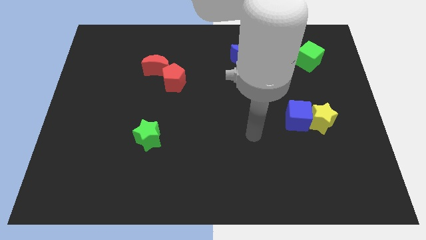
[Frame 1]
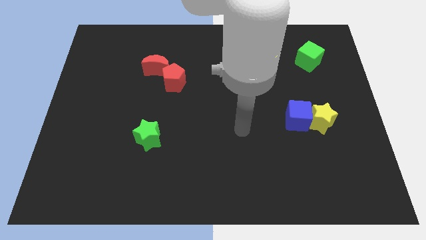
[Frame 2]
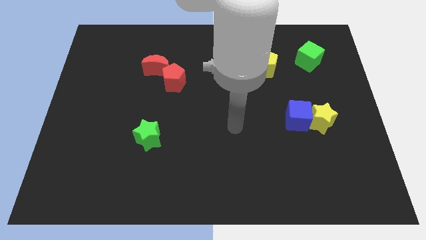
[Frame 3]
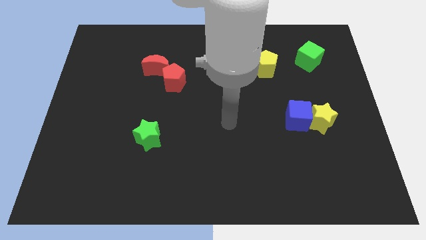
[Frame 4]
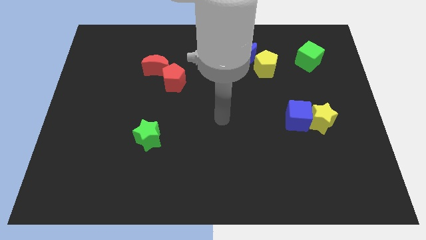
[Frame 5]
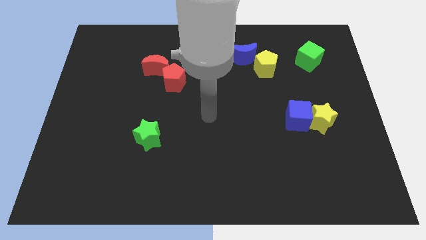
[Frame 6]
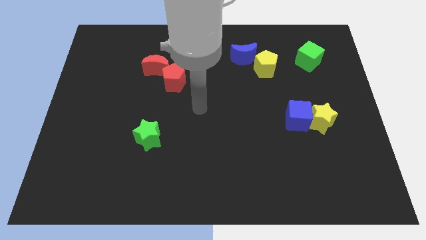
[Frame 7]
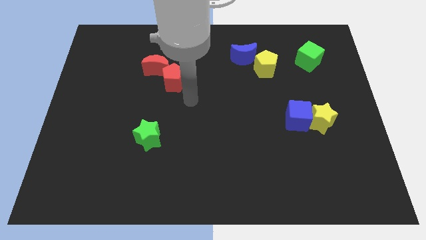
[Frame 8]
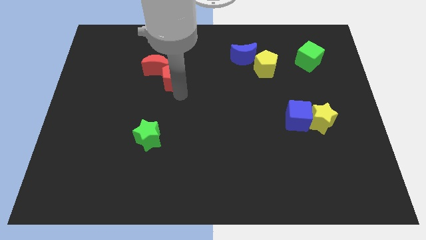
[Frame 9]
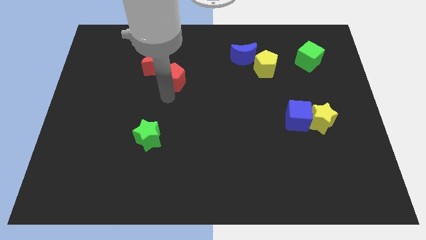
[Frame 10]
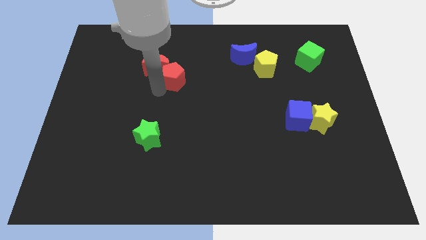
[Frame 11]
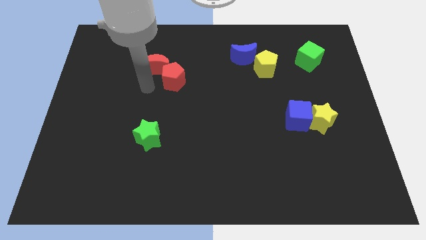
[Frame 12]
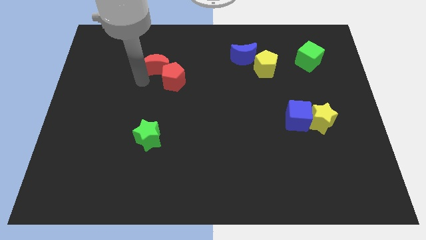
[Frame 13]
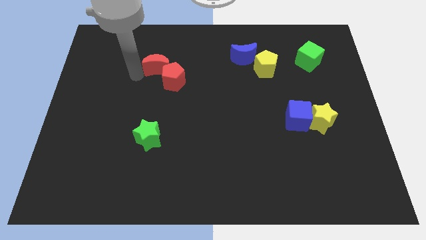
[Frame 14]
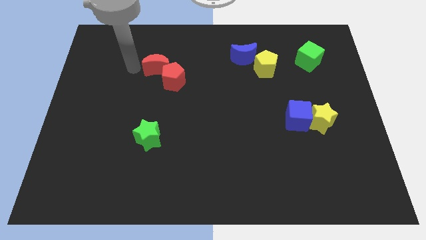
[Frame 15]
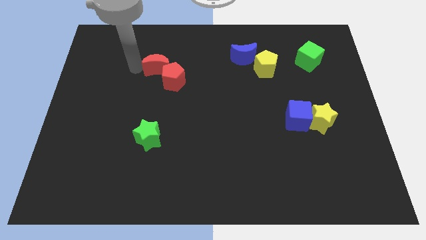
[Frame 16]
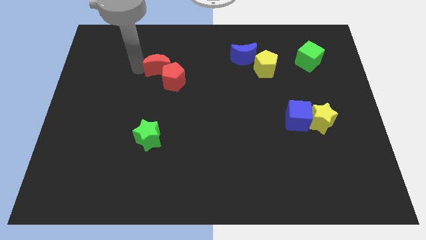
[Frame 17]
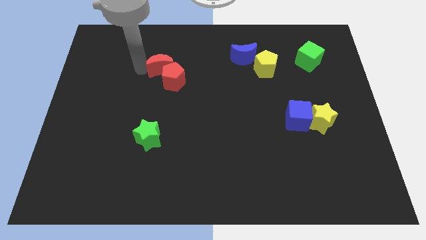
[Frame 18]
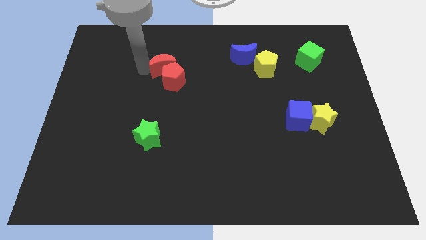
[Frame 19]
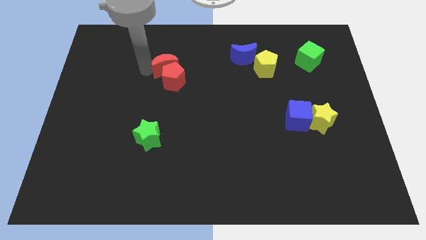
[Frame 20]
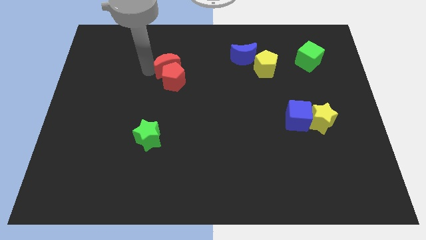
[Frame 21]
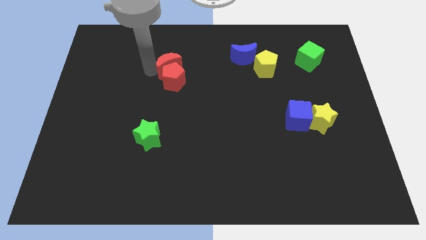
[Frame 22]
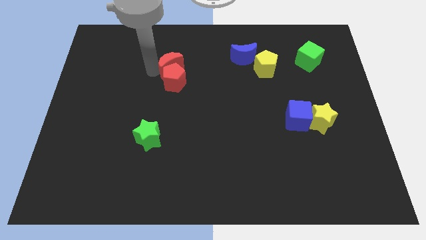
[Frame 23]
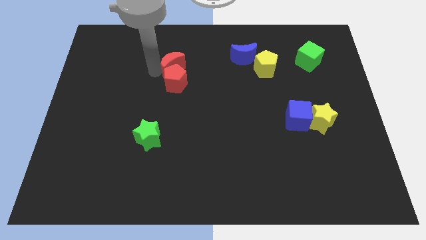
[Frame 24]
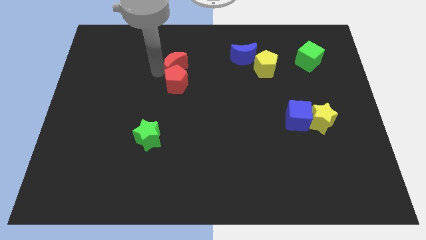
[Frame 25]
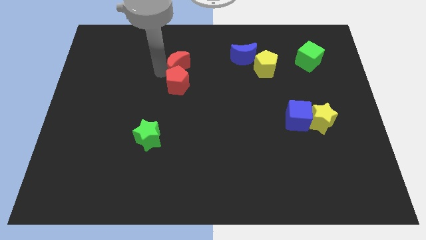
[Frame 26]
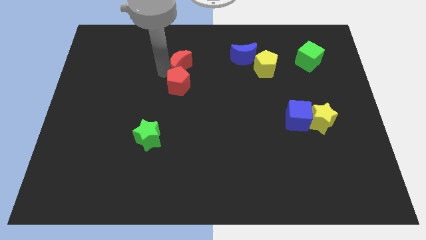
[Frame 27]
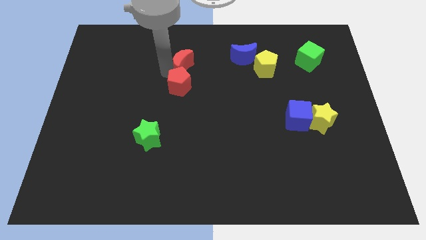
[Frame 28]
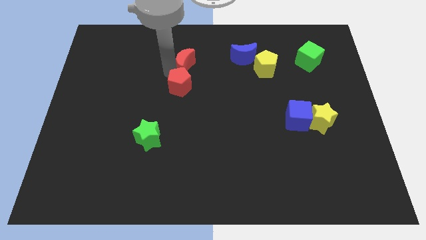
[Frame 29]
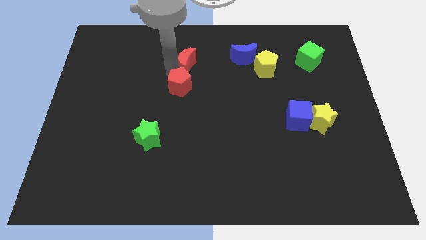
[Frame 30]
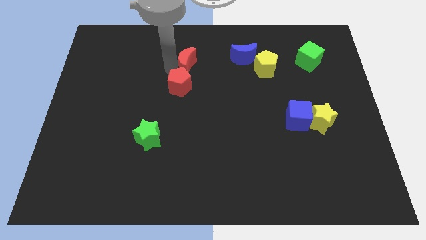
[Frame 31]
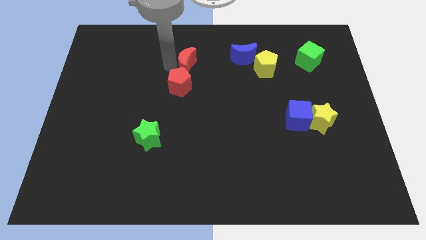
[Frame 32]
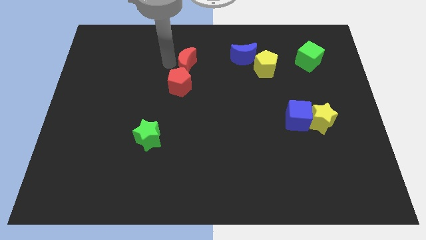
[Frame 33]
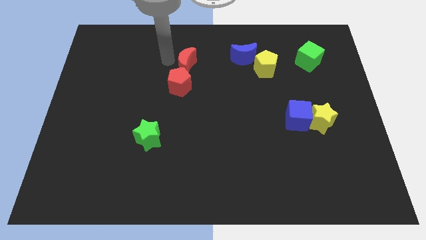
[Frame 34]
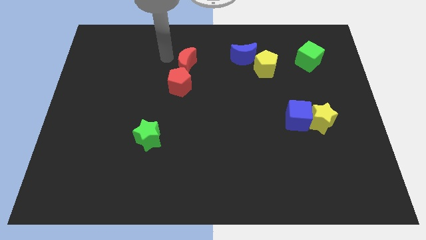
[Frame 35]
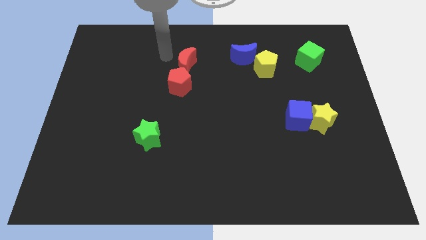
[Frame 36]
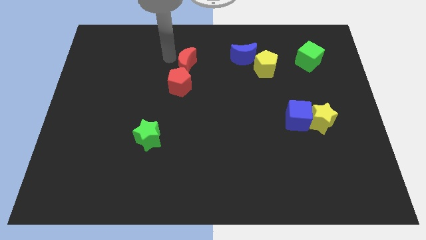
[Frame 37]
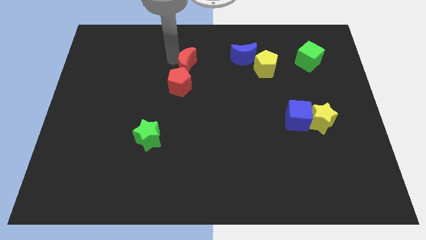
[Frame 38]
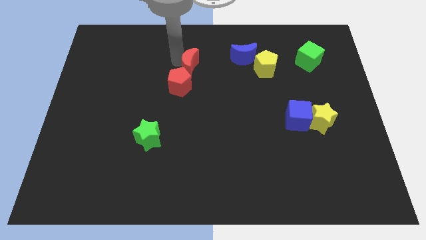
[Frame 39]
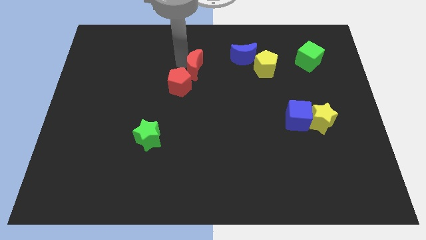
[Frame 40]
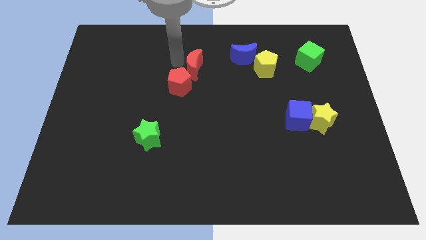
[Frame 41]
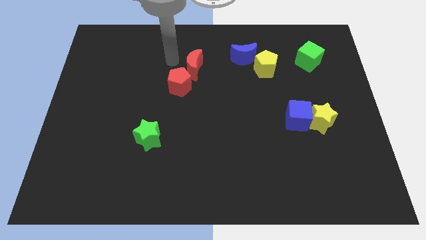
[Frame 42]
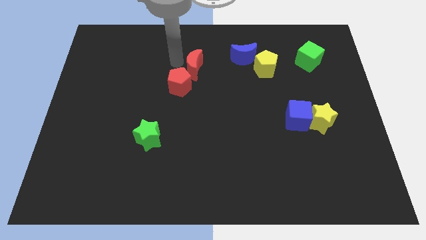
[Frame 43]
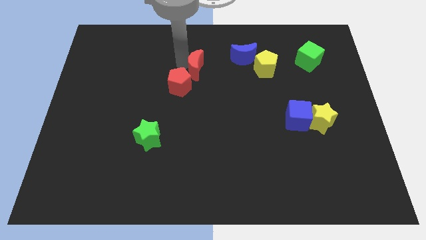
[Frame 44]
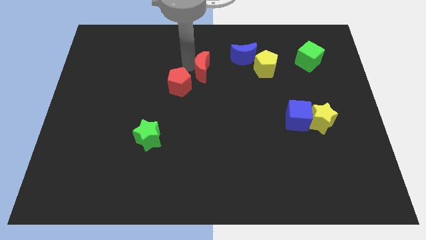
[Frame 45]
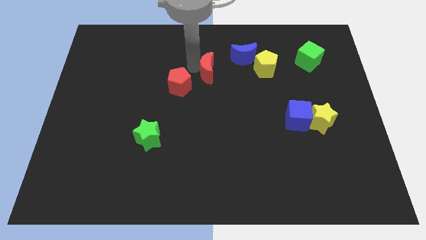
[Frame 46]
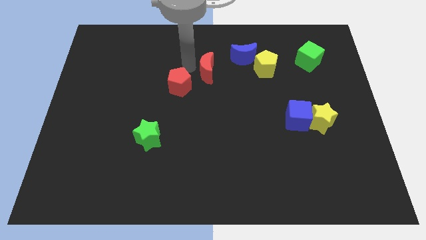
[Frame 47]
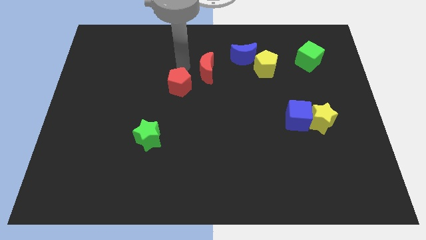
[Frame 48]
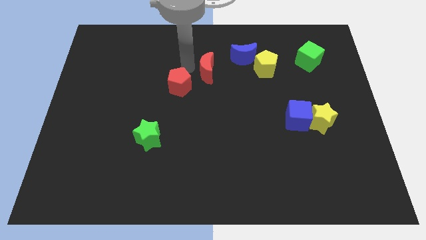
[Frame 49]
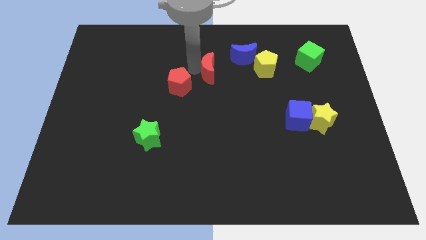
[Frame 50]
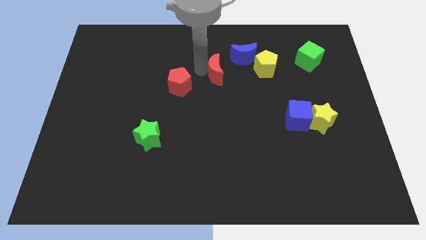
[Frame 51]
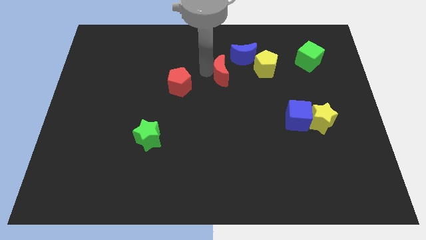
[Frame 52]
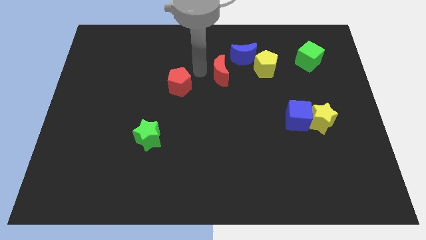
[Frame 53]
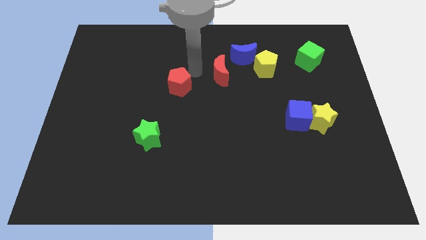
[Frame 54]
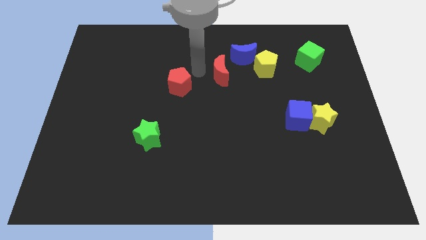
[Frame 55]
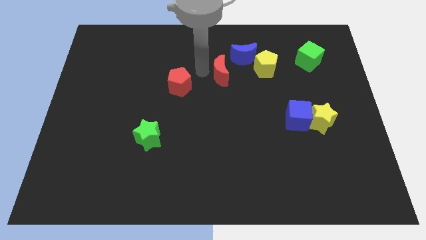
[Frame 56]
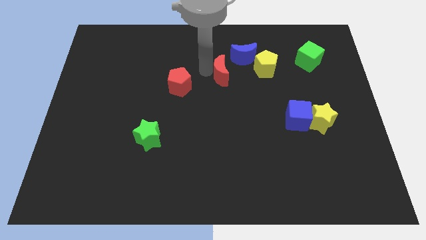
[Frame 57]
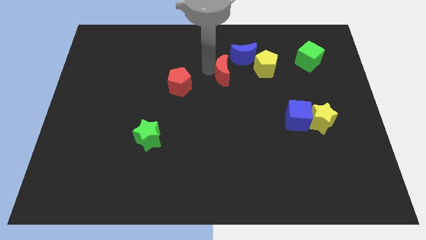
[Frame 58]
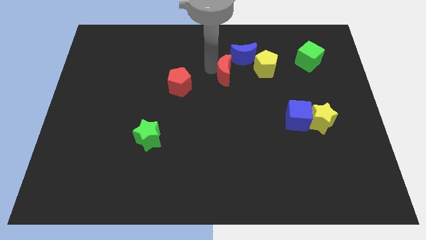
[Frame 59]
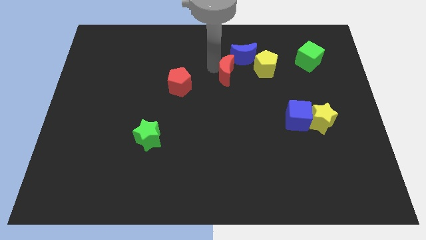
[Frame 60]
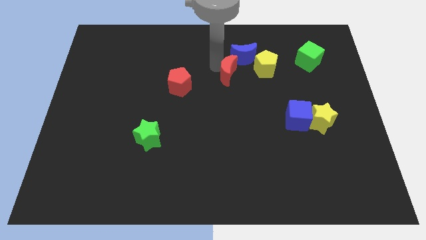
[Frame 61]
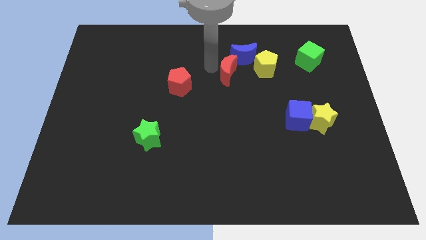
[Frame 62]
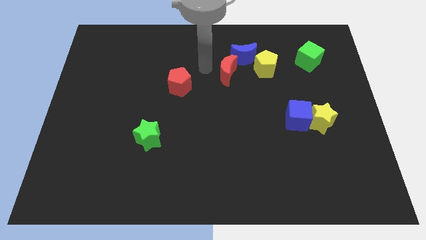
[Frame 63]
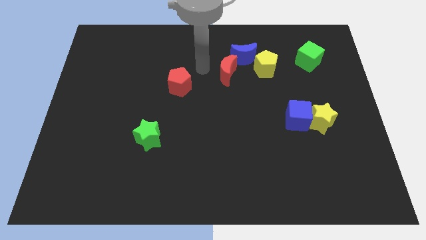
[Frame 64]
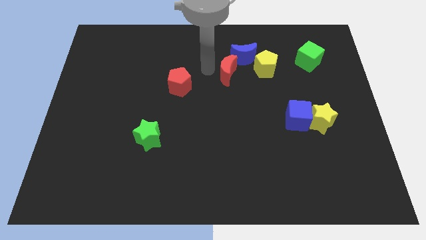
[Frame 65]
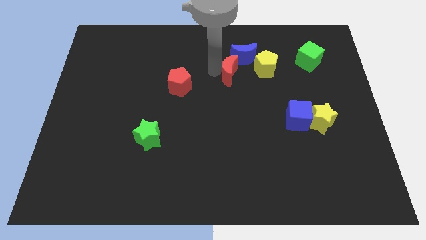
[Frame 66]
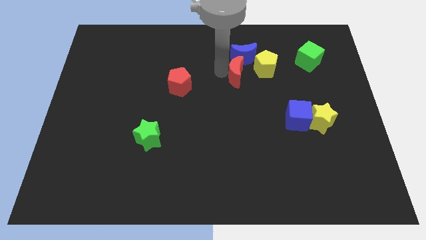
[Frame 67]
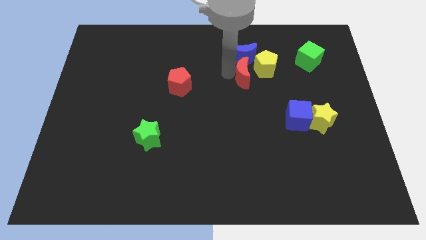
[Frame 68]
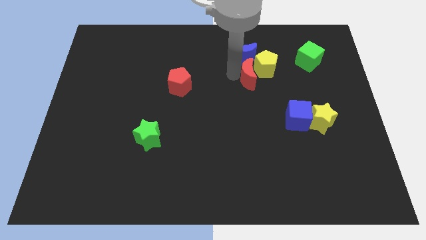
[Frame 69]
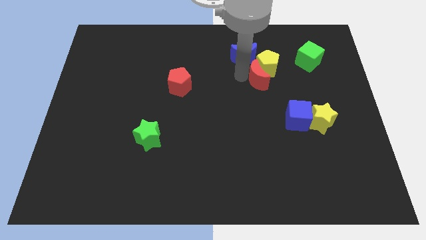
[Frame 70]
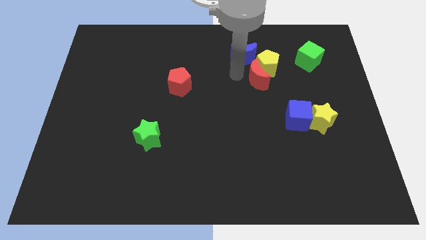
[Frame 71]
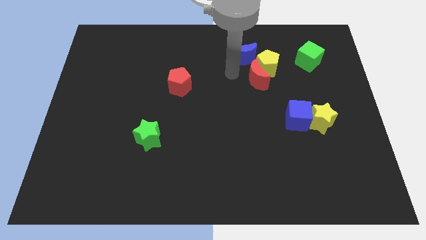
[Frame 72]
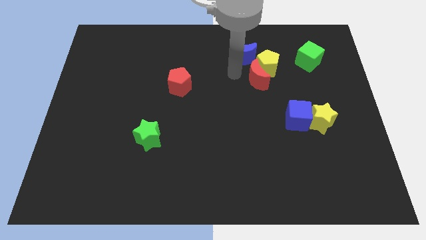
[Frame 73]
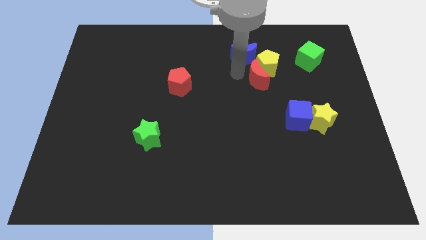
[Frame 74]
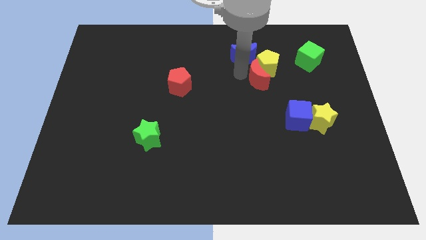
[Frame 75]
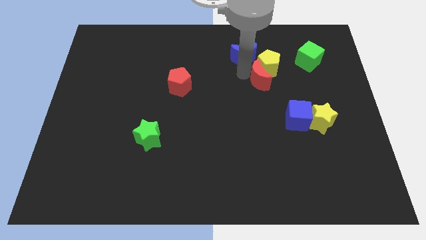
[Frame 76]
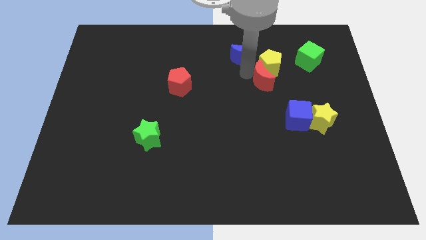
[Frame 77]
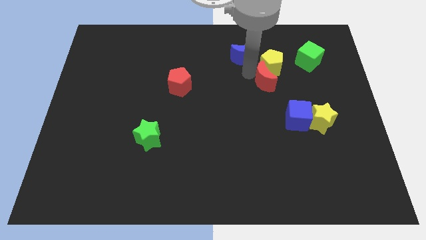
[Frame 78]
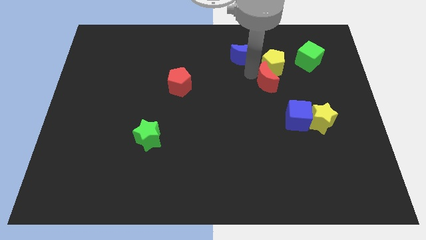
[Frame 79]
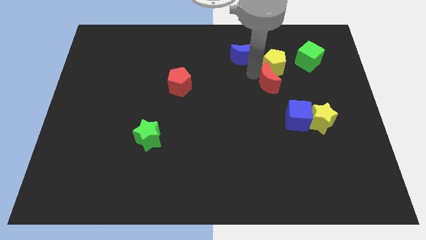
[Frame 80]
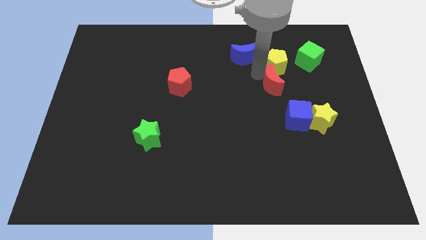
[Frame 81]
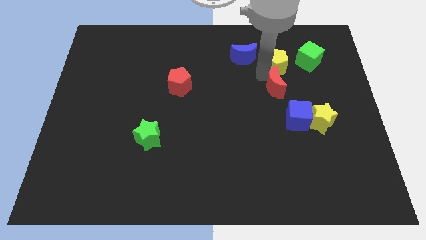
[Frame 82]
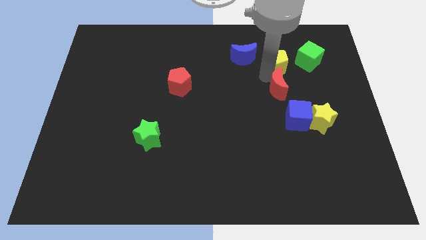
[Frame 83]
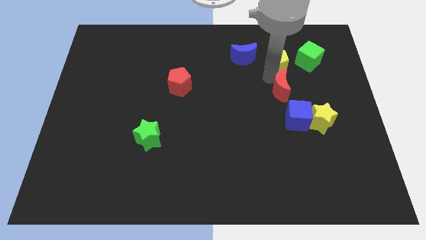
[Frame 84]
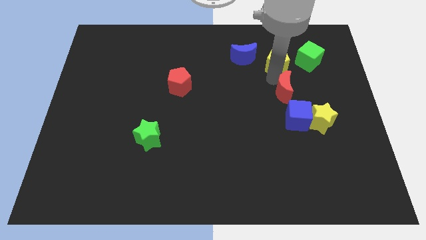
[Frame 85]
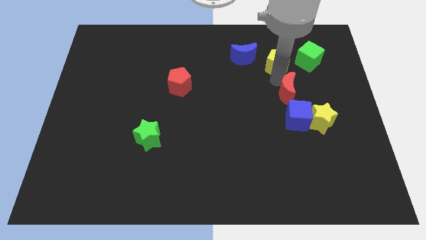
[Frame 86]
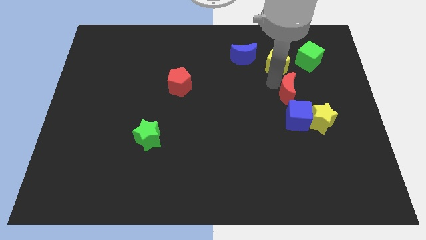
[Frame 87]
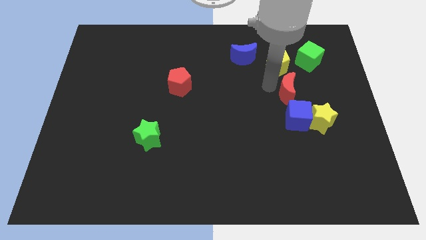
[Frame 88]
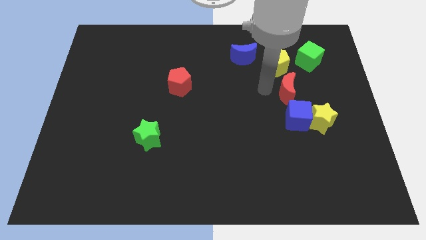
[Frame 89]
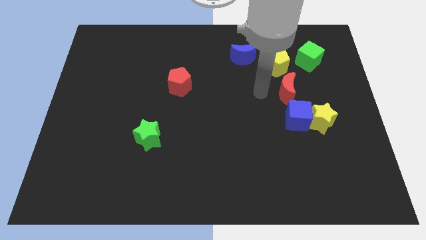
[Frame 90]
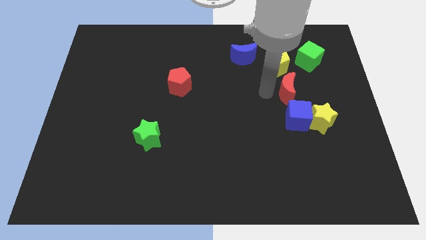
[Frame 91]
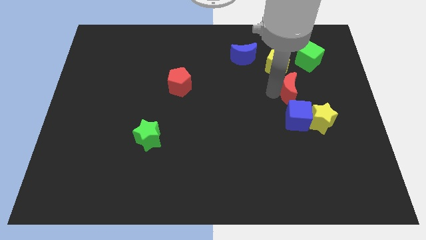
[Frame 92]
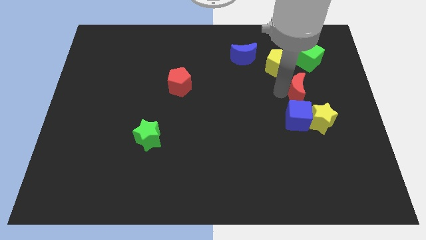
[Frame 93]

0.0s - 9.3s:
push the red moon to the bottom side of the green cube
